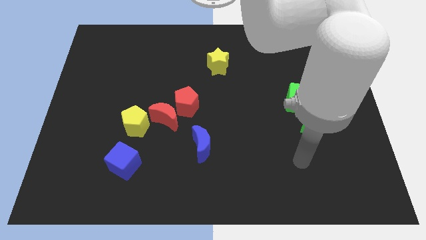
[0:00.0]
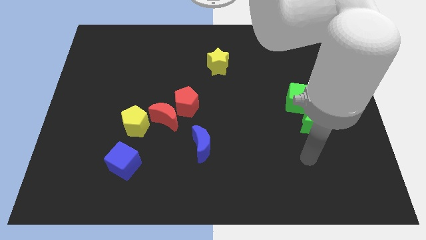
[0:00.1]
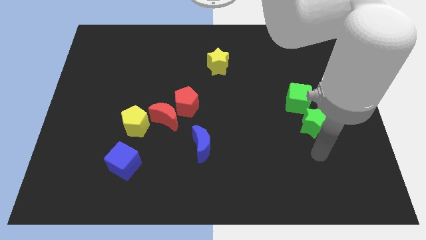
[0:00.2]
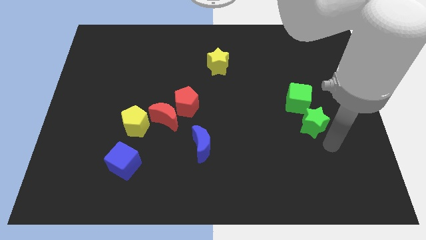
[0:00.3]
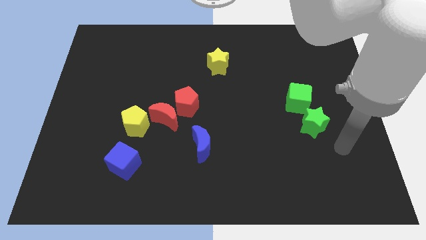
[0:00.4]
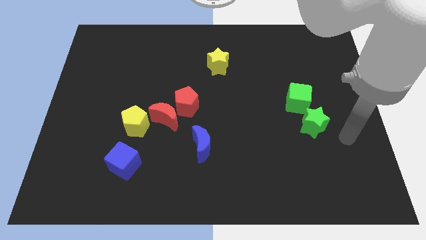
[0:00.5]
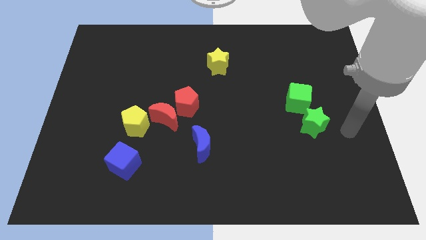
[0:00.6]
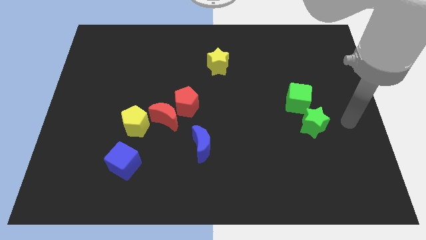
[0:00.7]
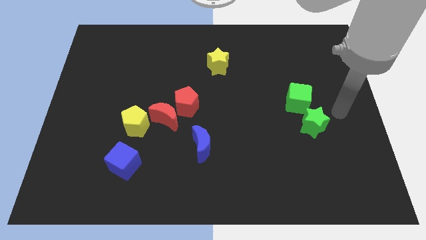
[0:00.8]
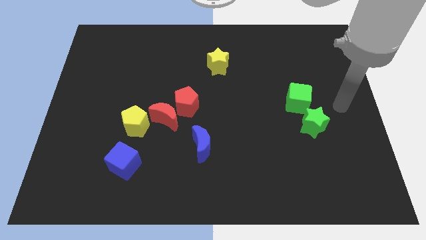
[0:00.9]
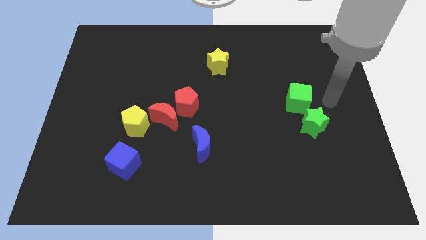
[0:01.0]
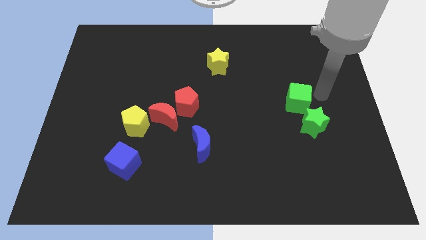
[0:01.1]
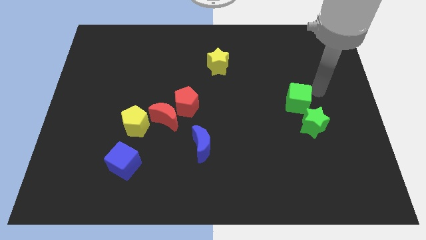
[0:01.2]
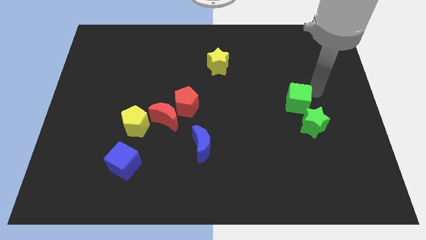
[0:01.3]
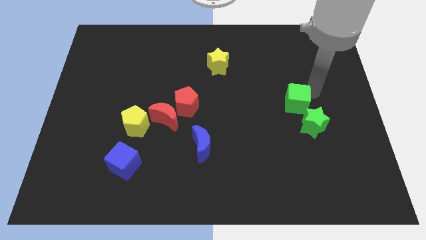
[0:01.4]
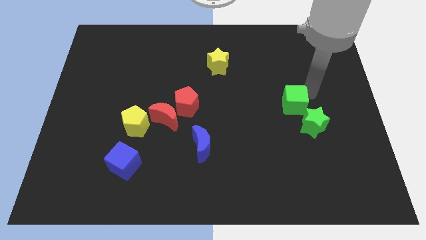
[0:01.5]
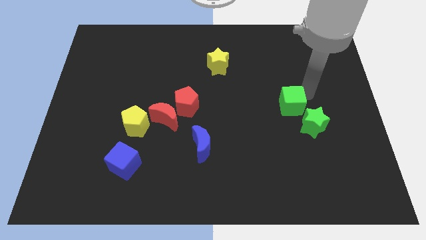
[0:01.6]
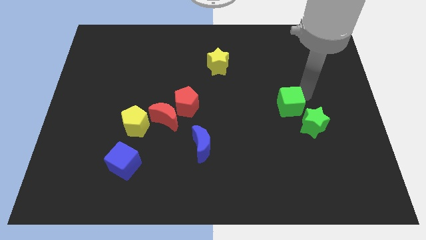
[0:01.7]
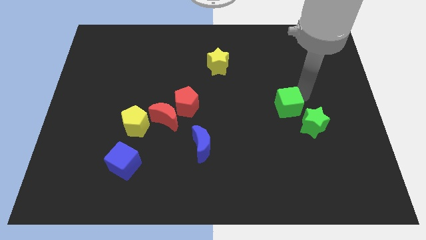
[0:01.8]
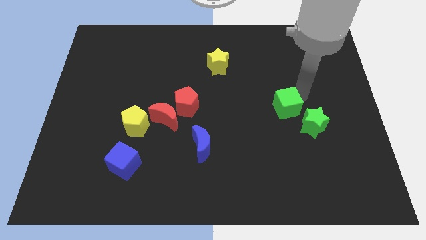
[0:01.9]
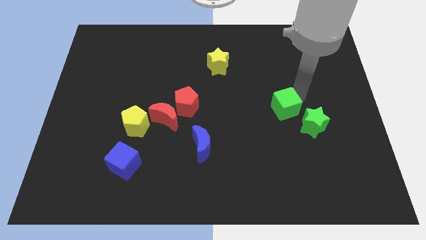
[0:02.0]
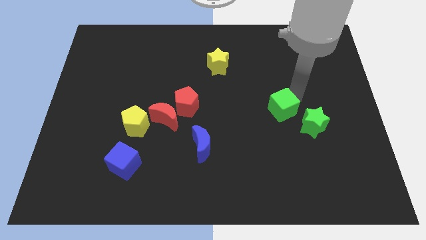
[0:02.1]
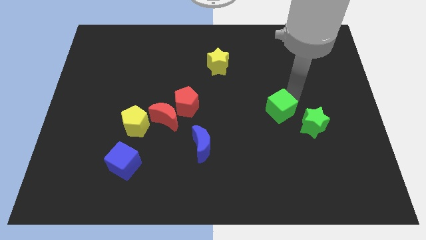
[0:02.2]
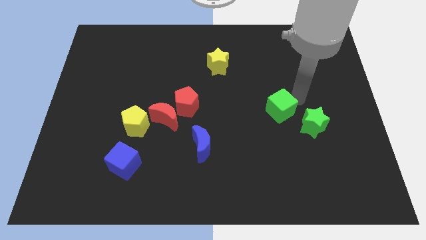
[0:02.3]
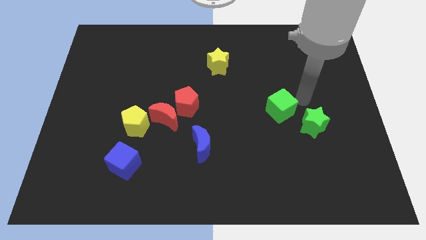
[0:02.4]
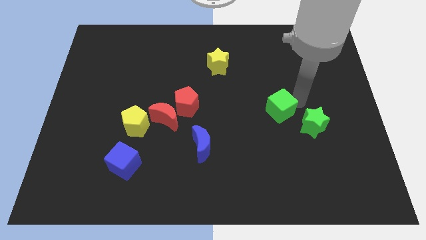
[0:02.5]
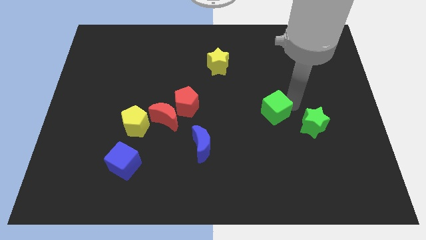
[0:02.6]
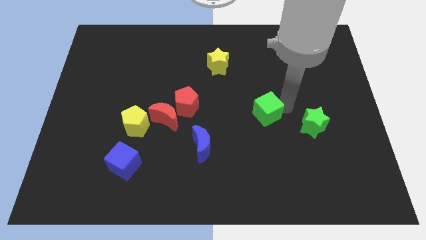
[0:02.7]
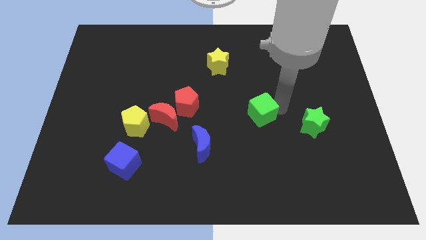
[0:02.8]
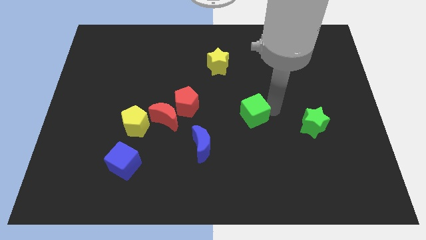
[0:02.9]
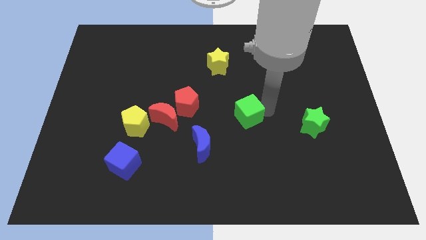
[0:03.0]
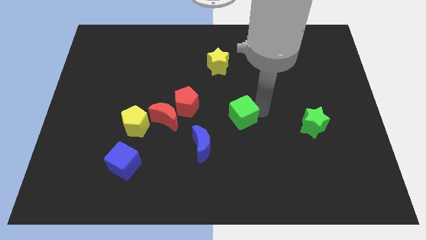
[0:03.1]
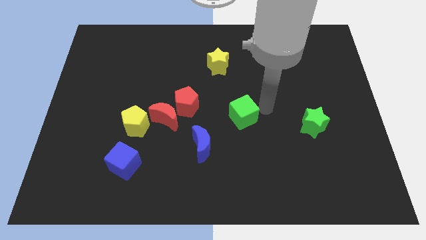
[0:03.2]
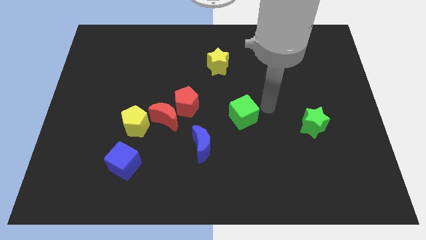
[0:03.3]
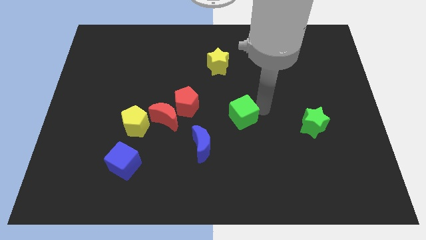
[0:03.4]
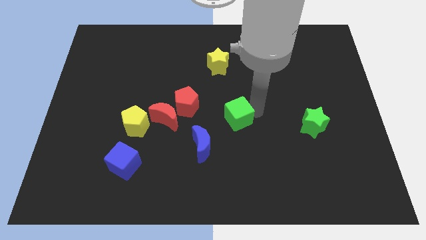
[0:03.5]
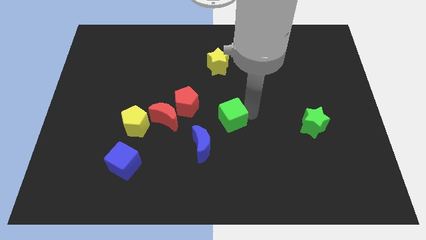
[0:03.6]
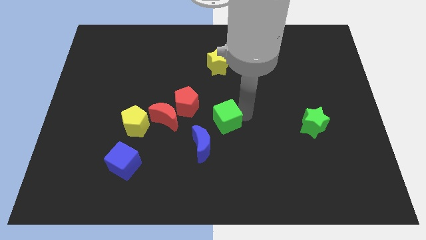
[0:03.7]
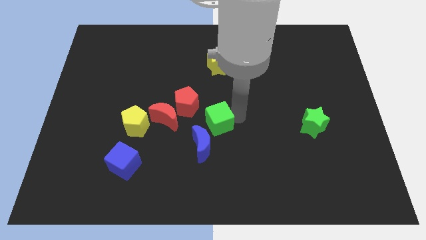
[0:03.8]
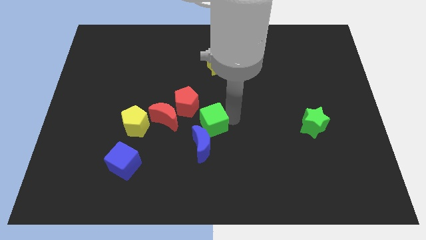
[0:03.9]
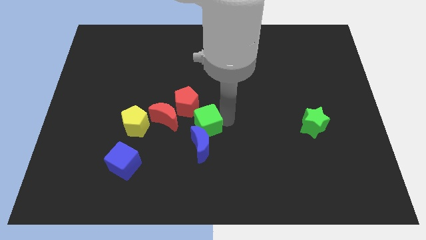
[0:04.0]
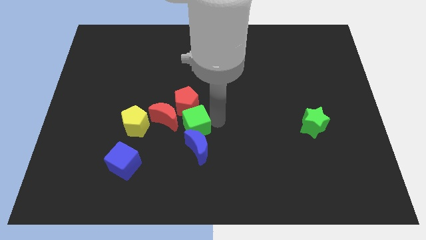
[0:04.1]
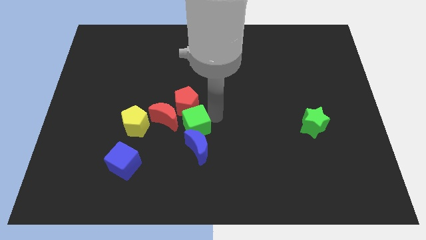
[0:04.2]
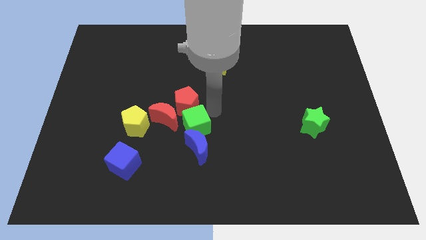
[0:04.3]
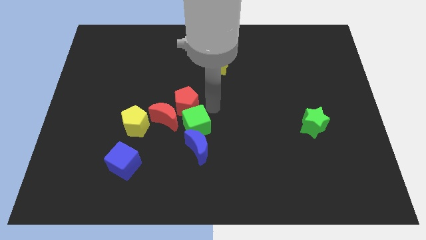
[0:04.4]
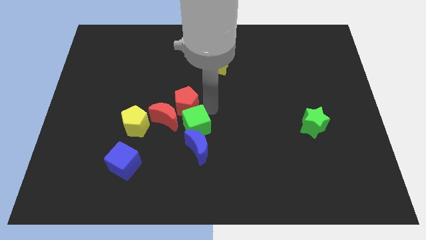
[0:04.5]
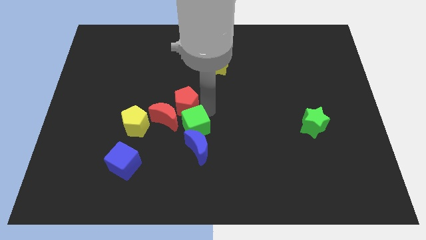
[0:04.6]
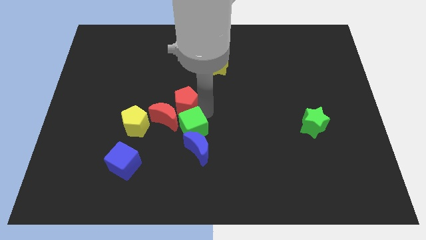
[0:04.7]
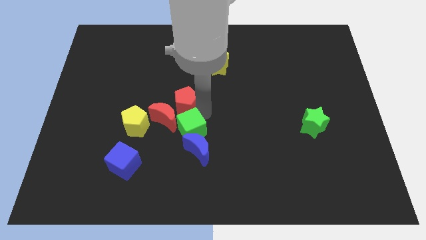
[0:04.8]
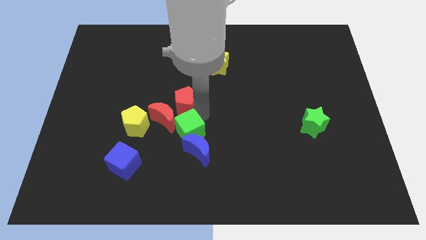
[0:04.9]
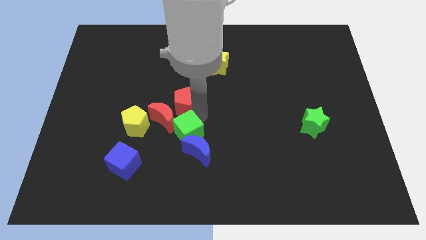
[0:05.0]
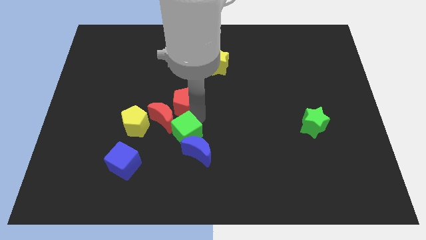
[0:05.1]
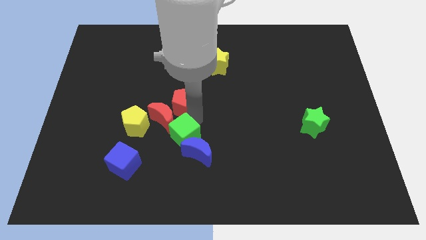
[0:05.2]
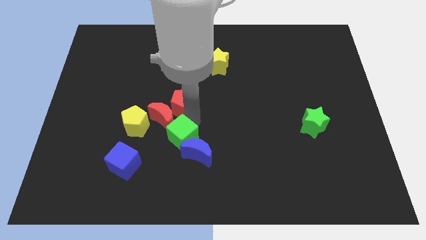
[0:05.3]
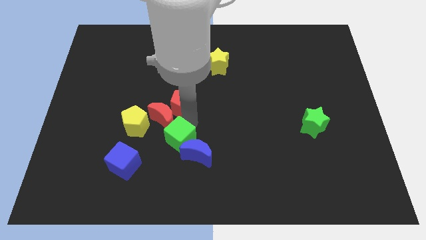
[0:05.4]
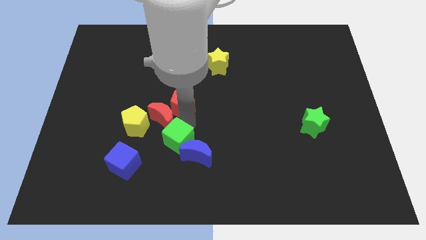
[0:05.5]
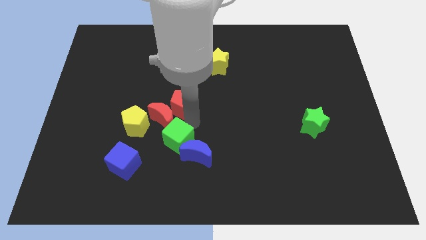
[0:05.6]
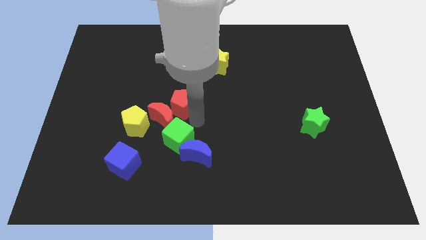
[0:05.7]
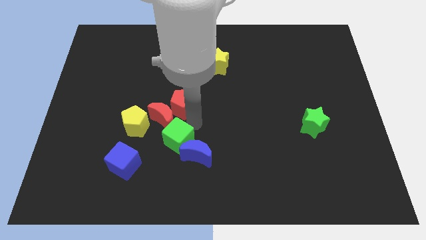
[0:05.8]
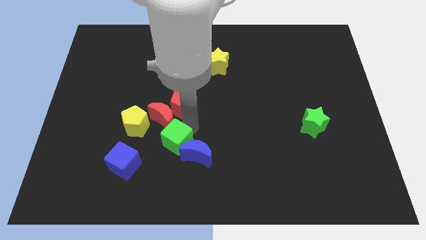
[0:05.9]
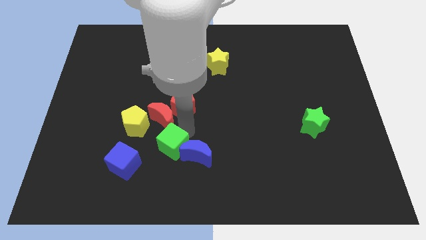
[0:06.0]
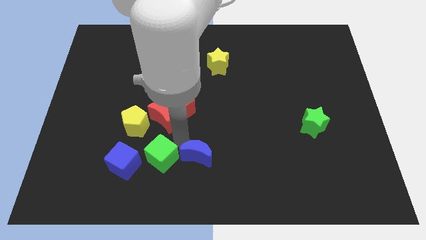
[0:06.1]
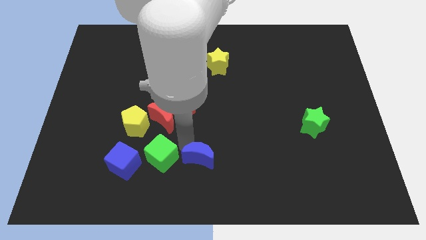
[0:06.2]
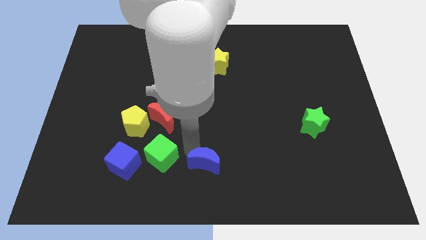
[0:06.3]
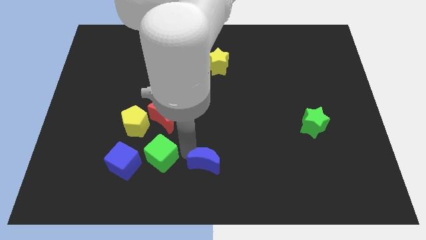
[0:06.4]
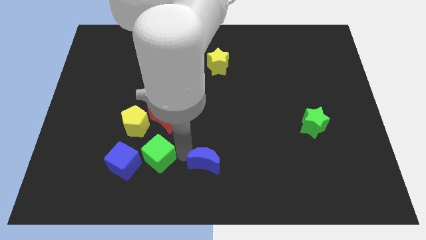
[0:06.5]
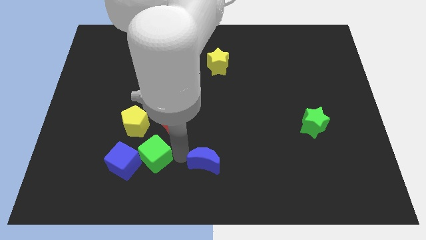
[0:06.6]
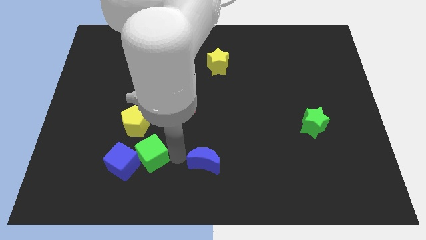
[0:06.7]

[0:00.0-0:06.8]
slide the green cube next to the blue cube

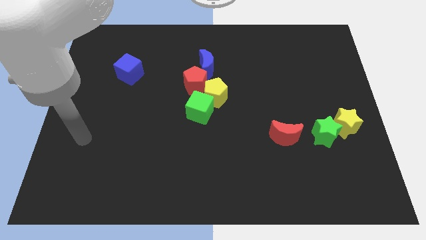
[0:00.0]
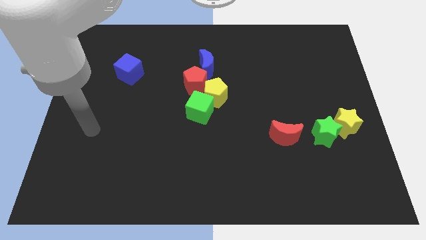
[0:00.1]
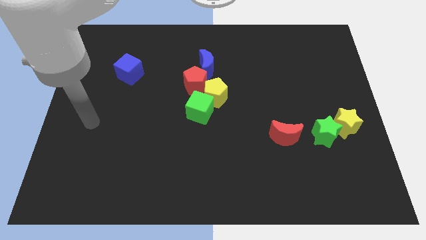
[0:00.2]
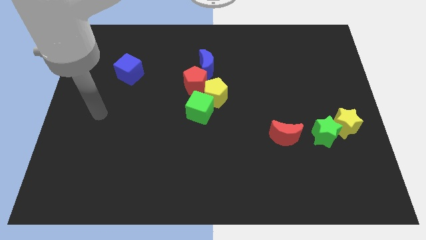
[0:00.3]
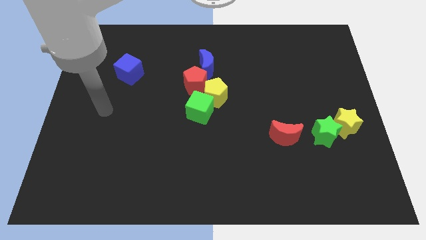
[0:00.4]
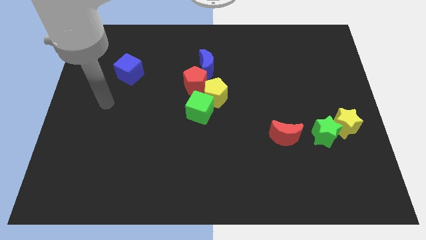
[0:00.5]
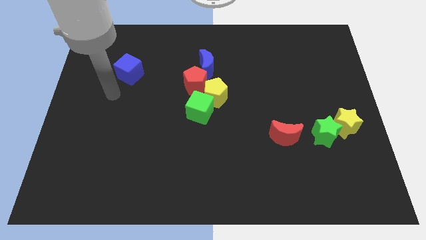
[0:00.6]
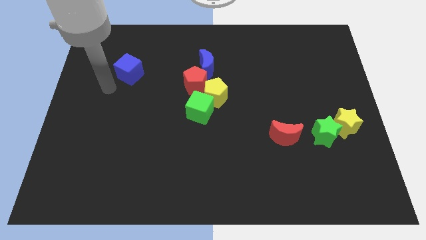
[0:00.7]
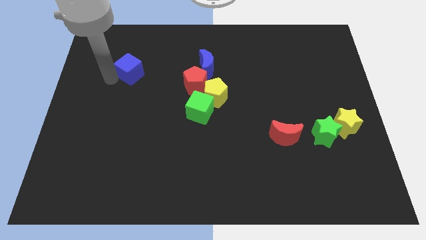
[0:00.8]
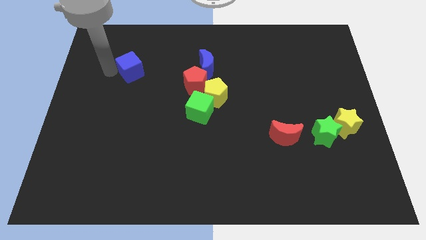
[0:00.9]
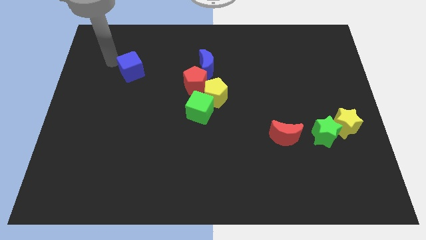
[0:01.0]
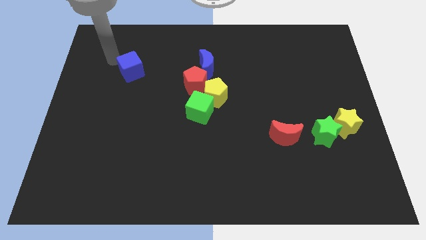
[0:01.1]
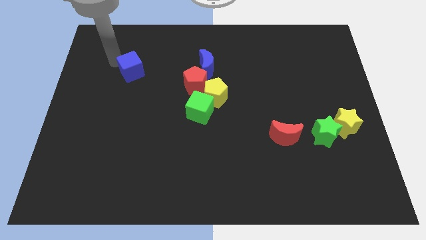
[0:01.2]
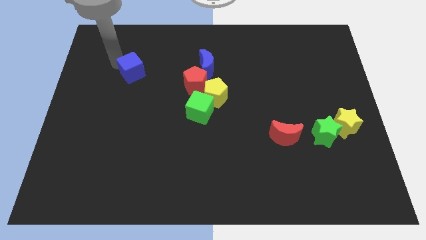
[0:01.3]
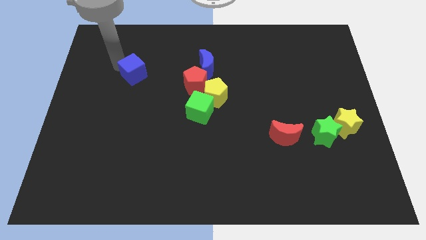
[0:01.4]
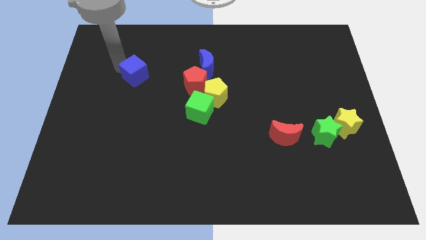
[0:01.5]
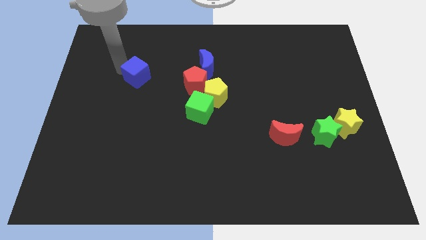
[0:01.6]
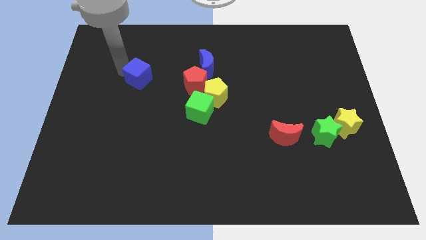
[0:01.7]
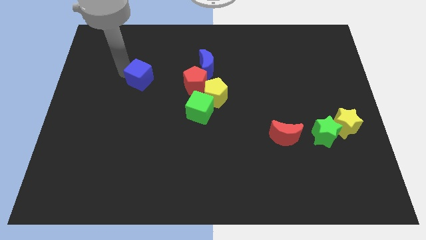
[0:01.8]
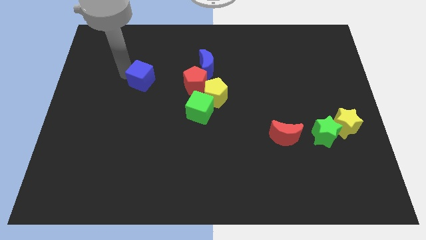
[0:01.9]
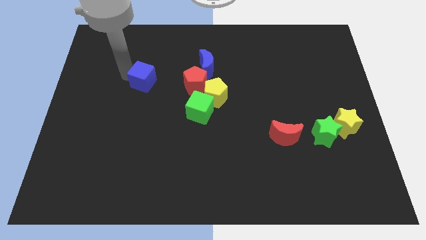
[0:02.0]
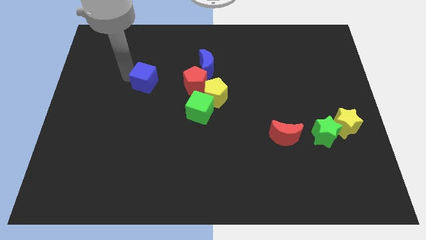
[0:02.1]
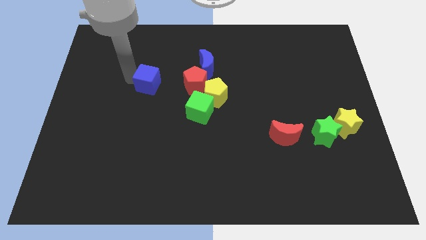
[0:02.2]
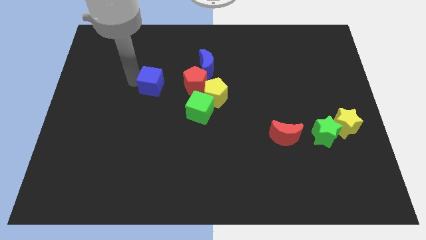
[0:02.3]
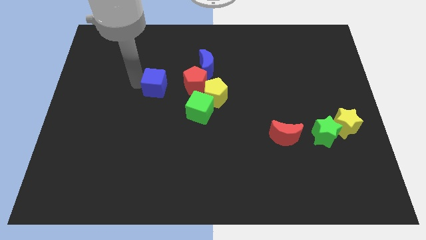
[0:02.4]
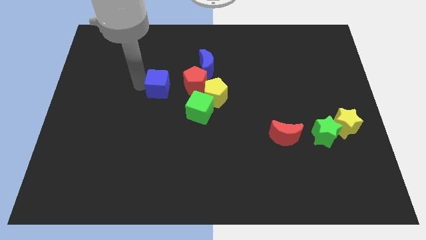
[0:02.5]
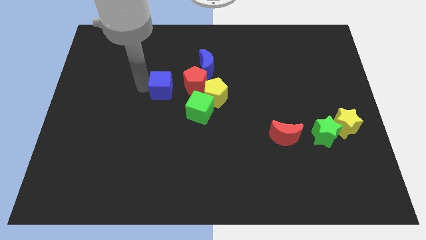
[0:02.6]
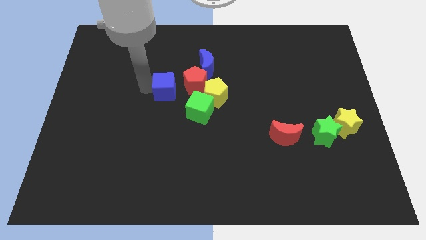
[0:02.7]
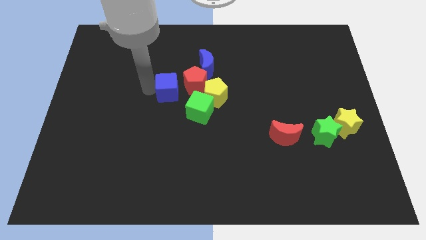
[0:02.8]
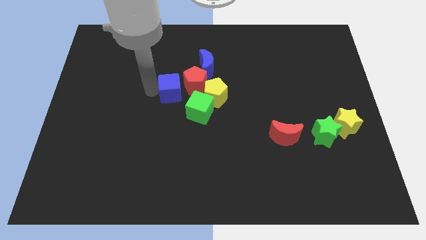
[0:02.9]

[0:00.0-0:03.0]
put the blue cube next to the red pentagon
